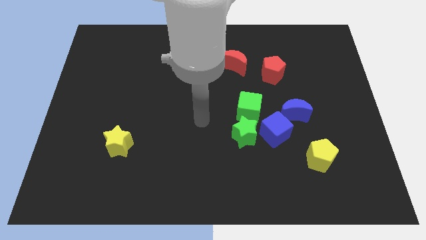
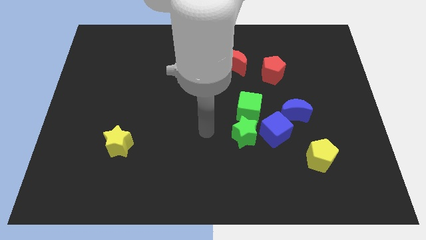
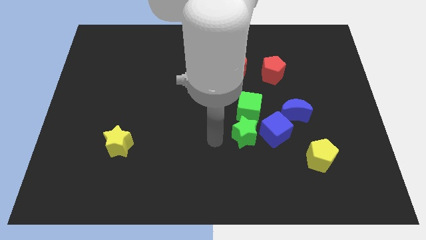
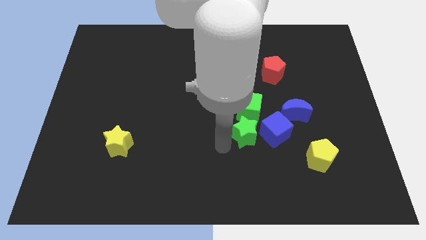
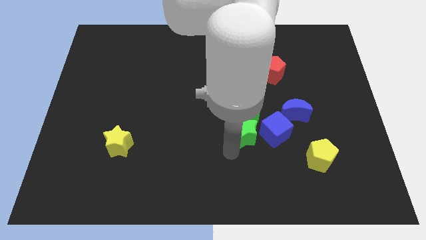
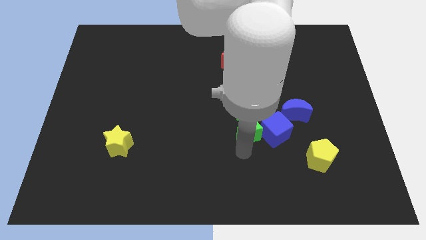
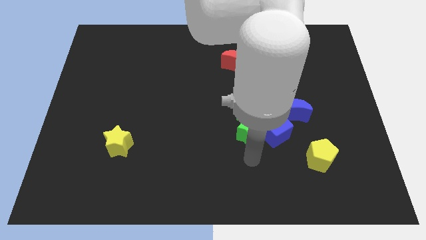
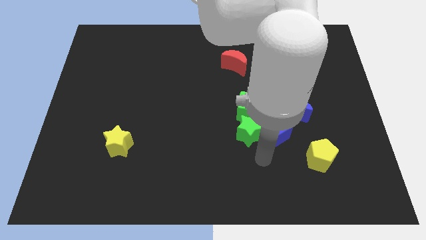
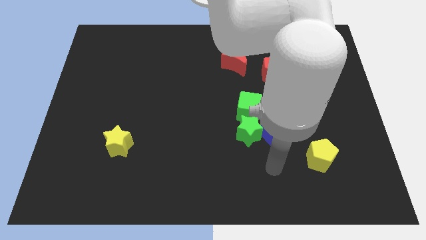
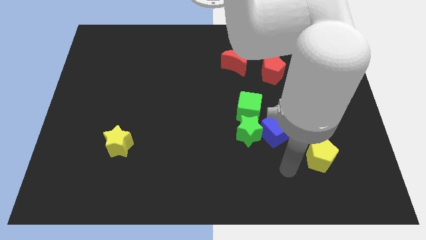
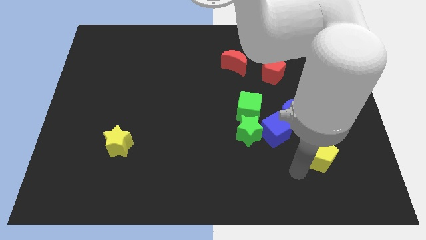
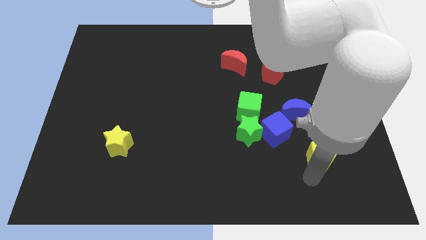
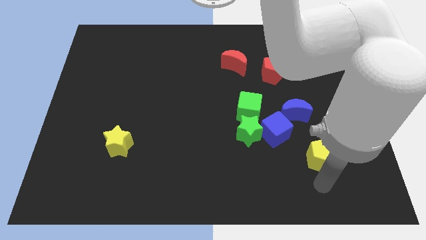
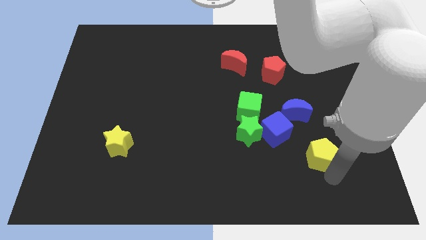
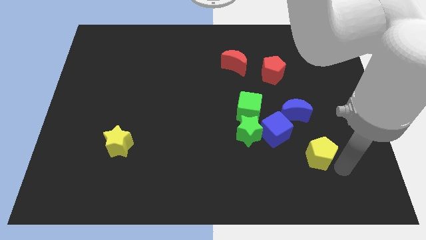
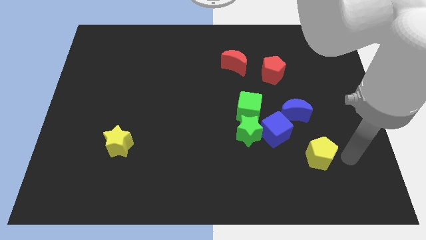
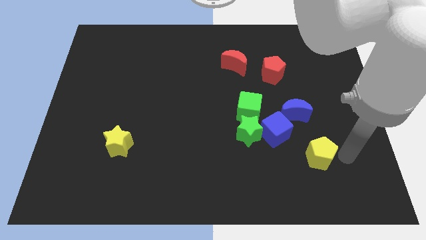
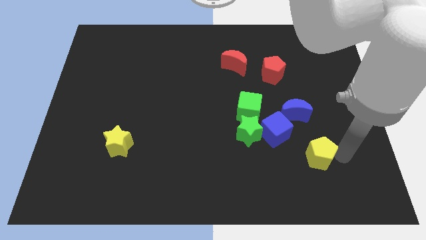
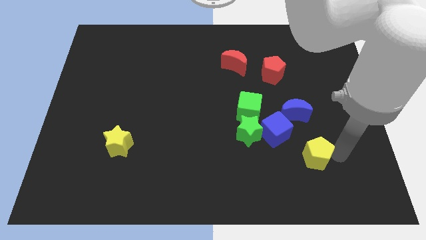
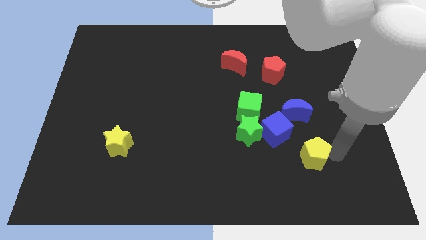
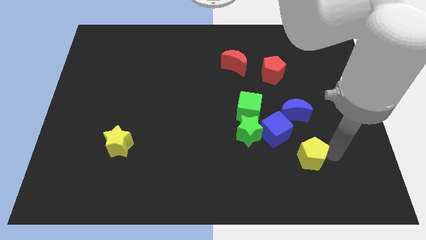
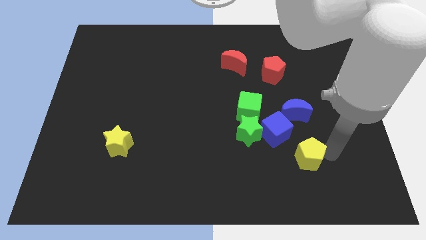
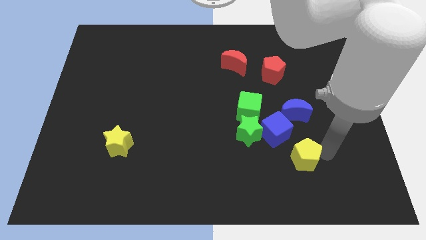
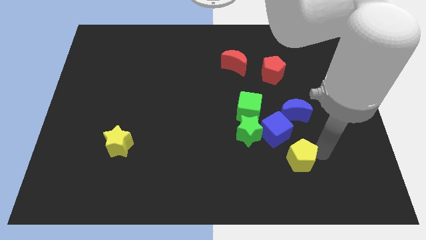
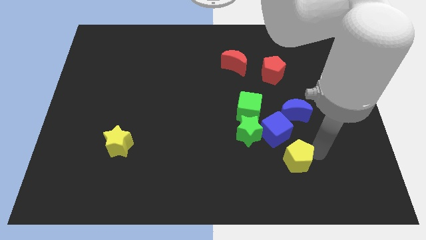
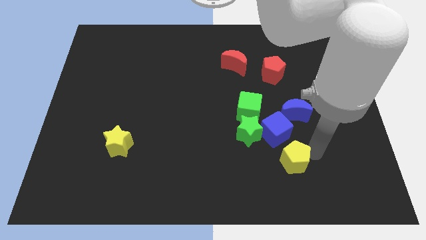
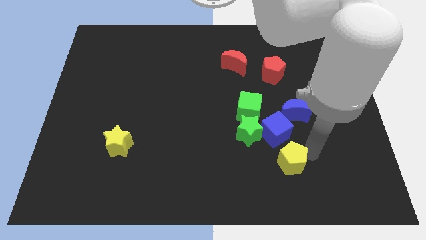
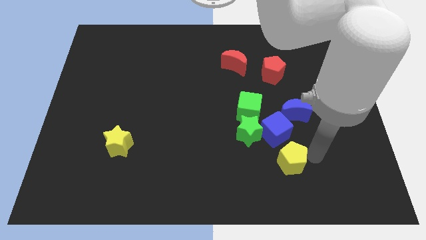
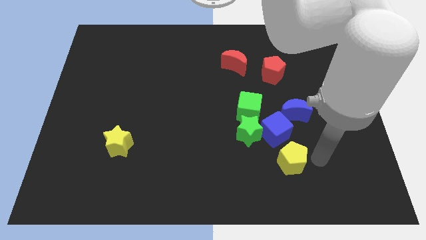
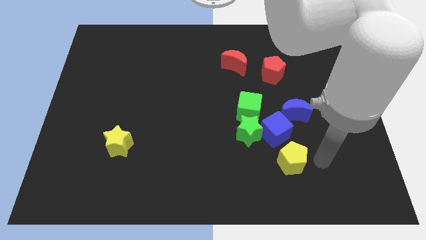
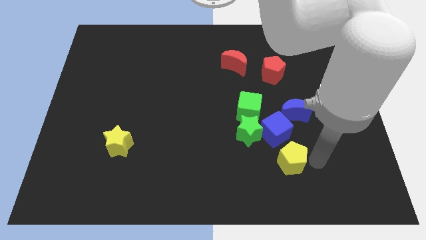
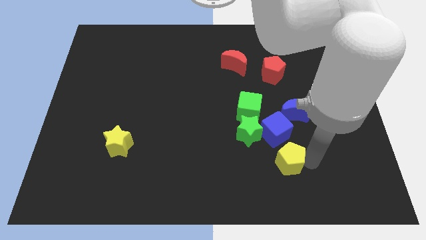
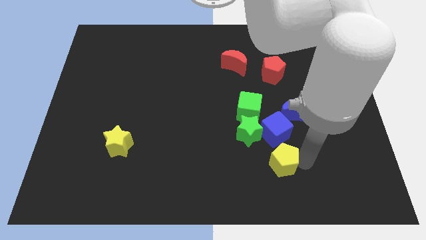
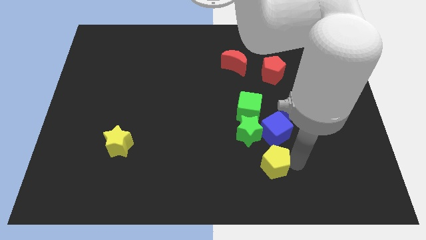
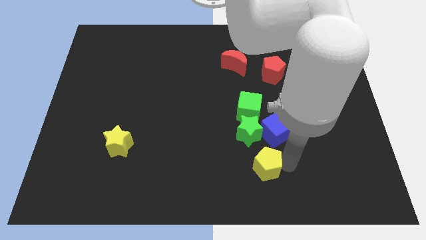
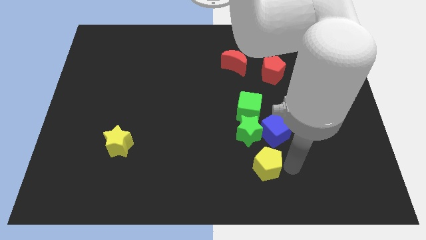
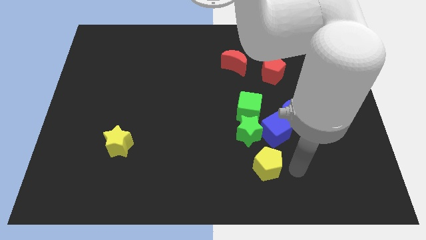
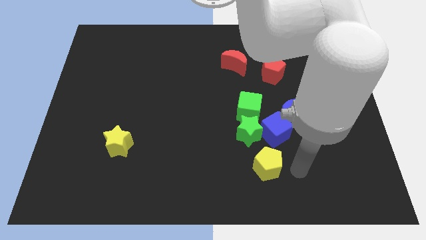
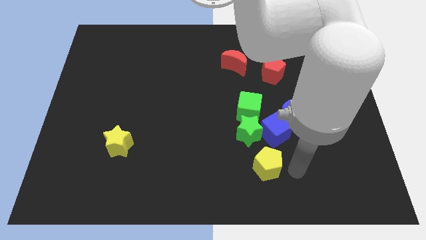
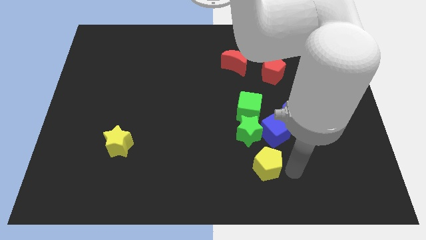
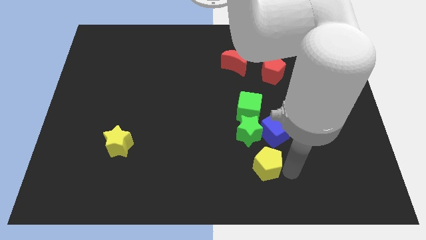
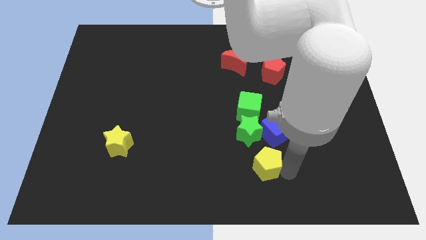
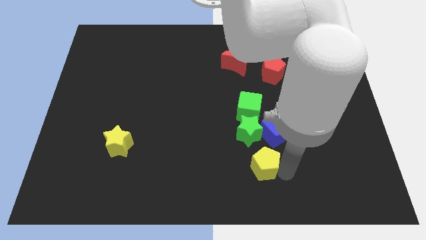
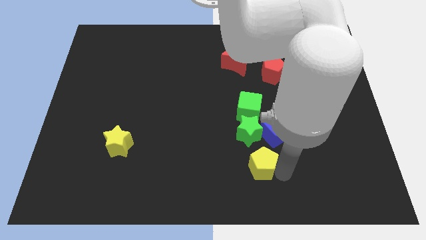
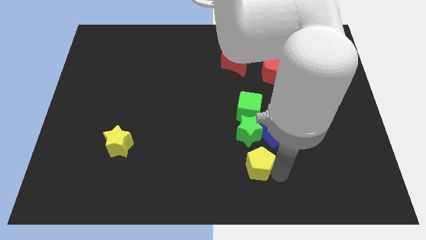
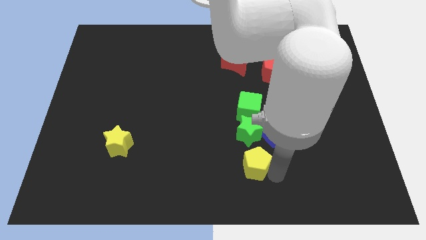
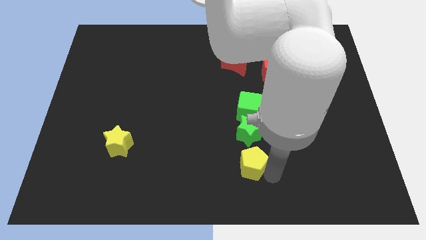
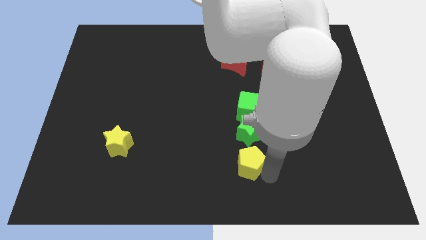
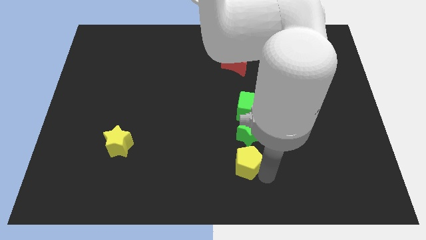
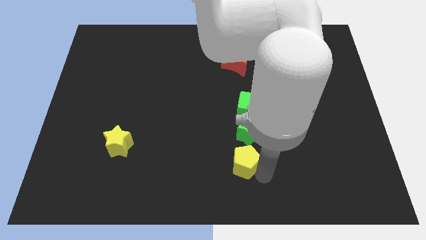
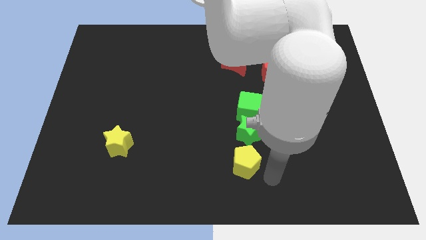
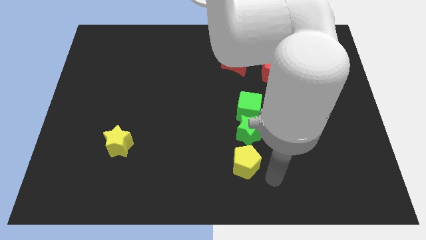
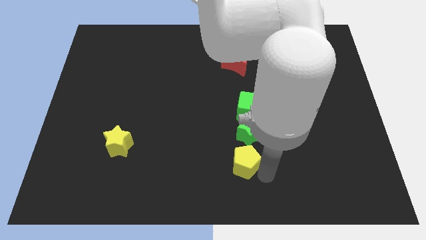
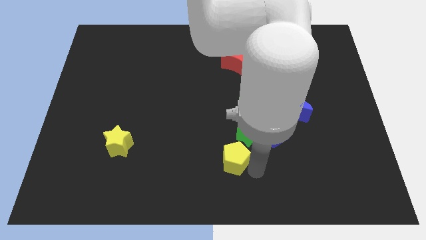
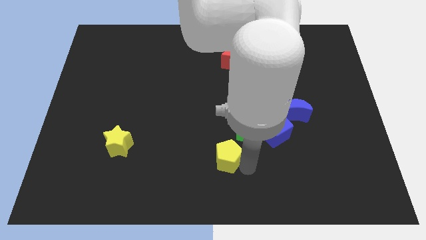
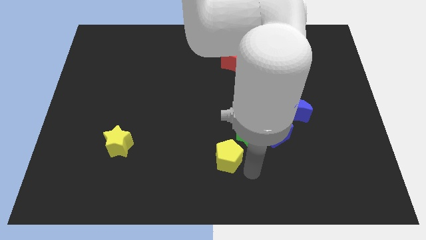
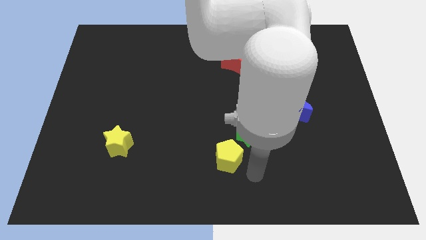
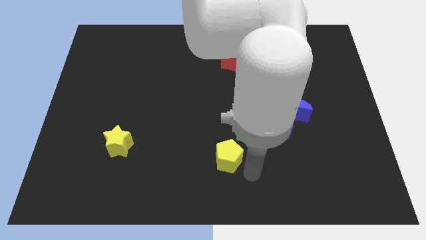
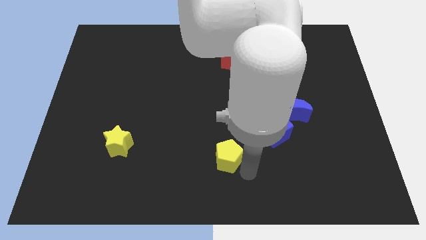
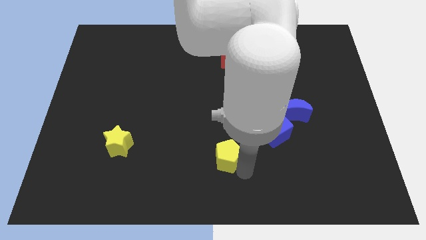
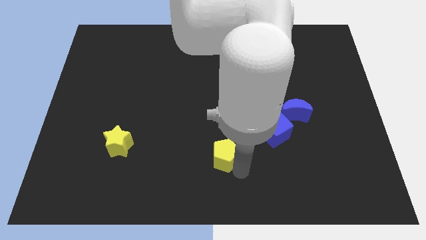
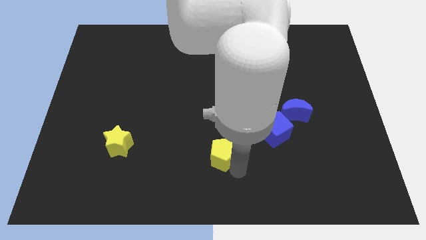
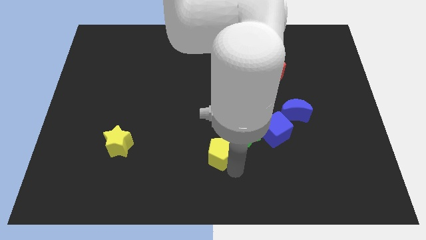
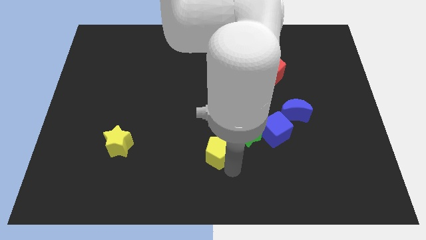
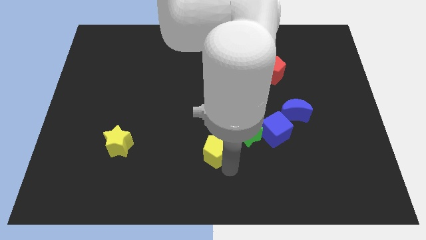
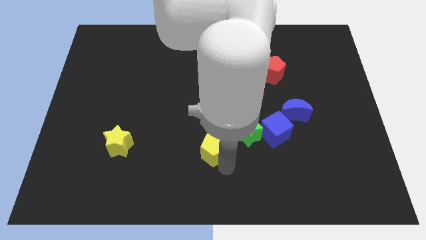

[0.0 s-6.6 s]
move the yellow pentagon just left of the green star
